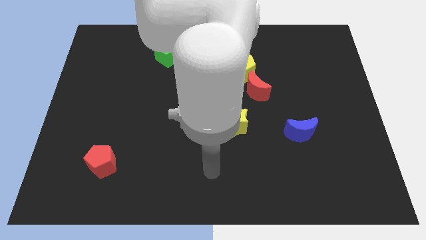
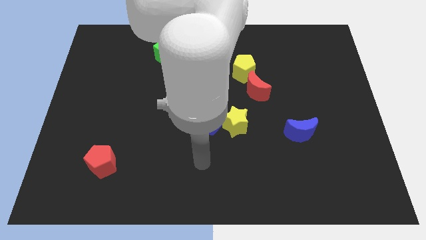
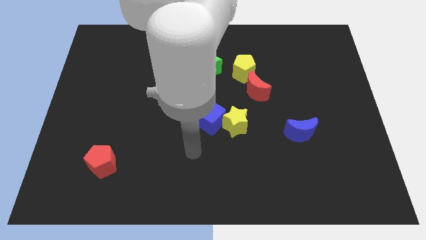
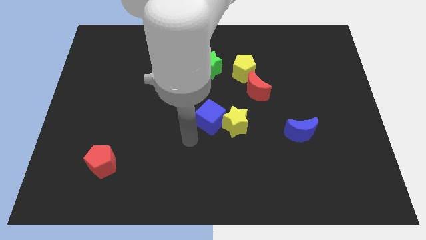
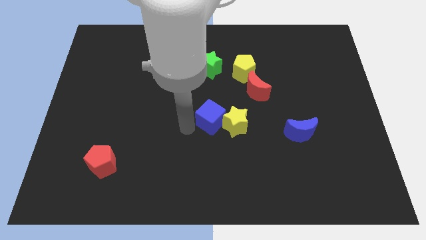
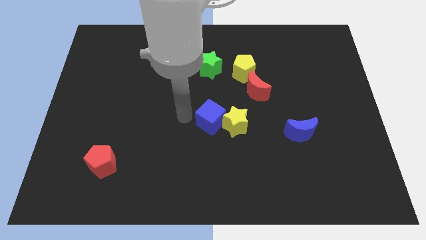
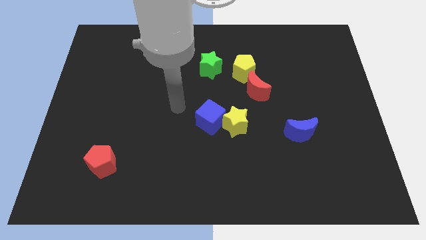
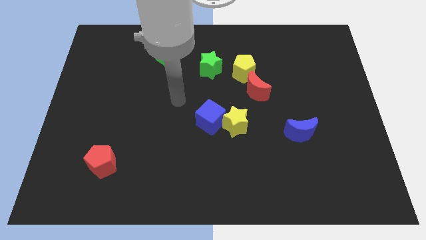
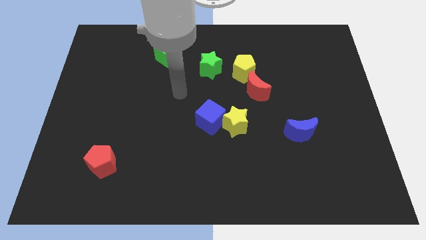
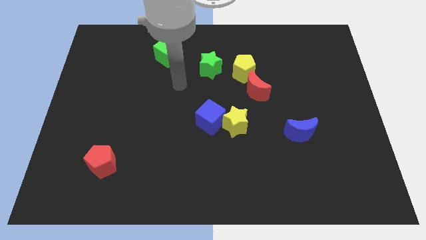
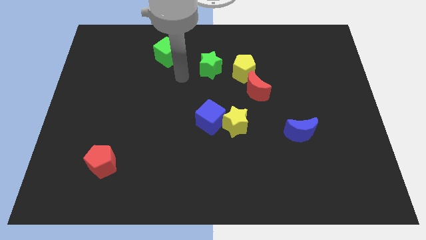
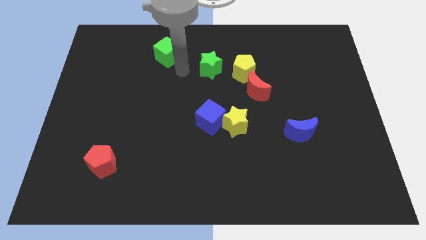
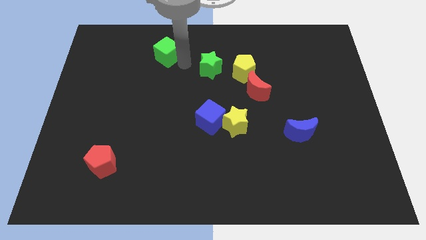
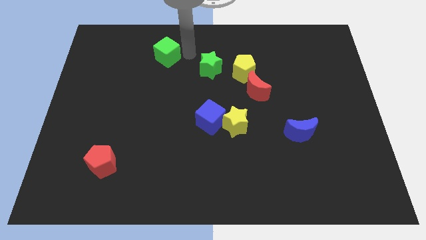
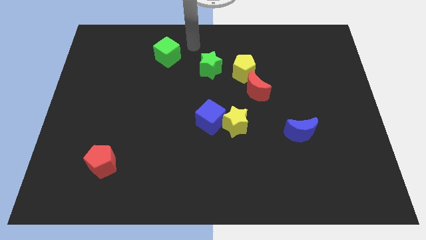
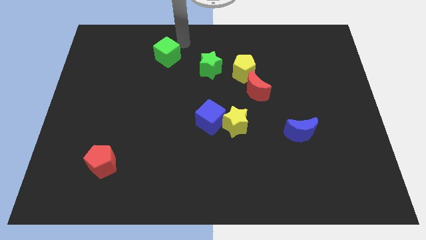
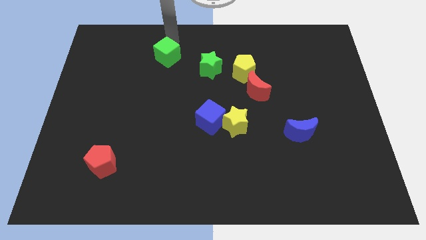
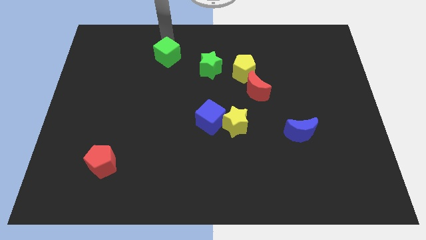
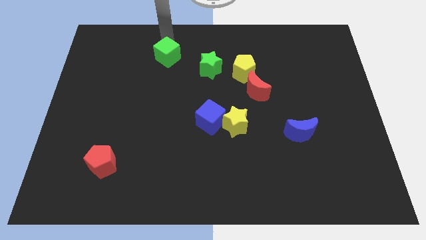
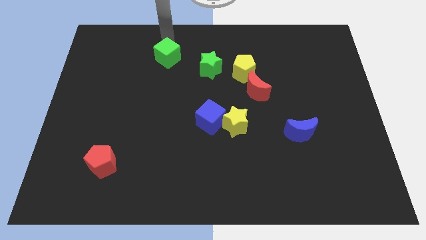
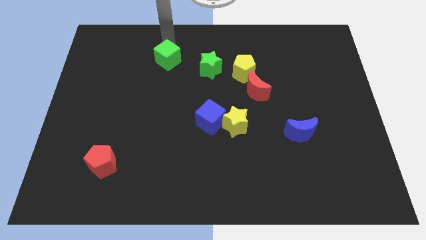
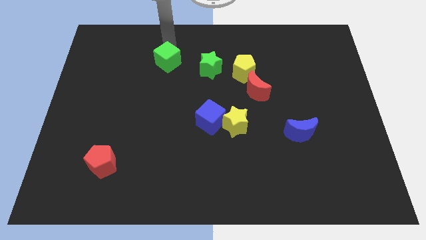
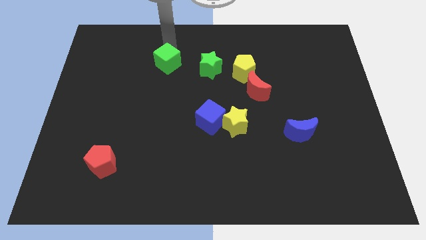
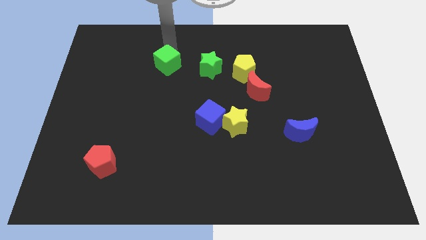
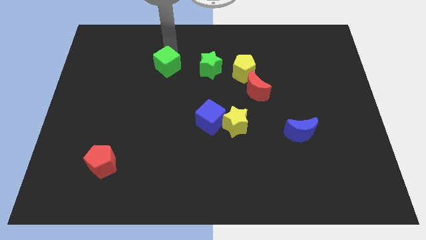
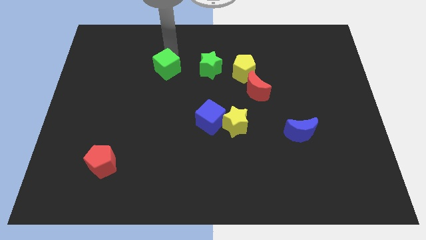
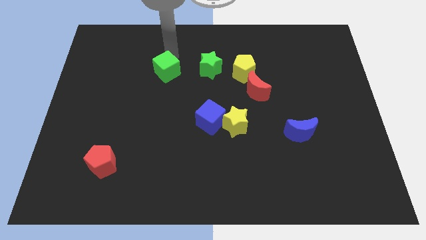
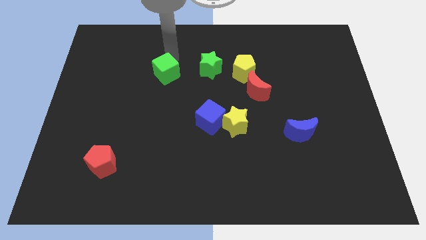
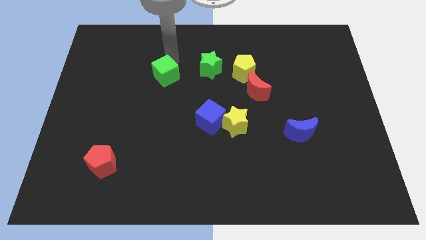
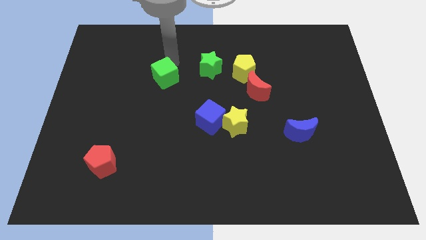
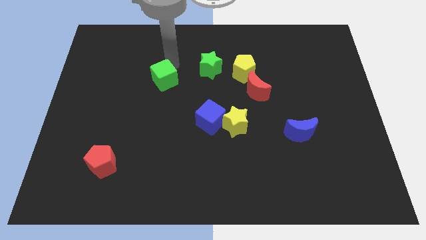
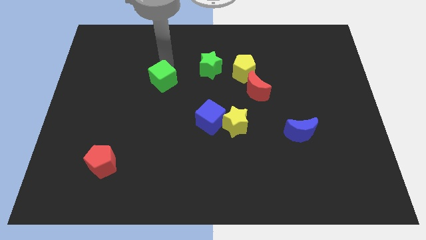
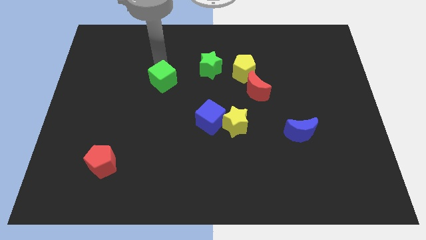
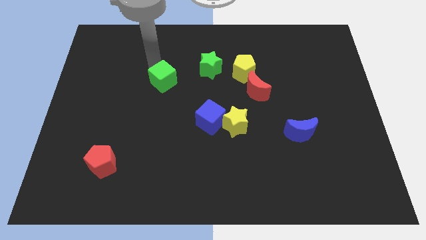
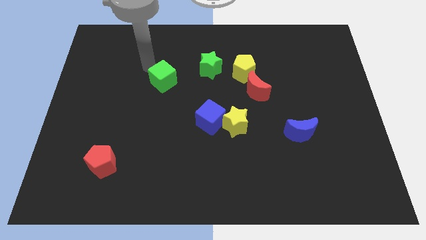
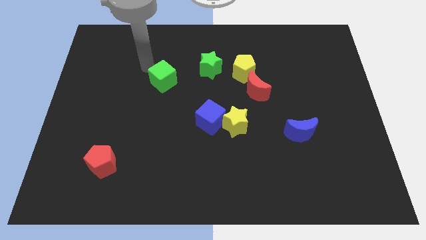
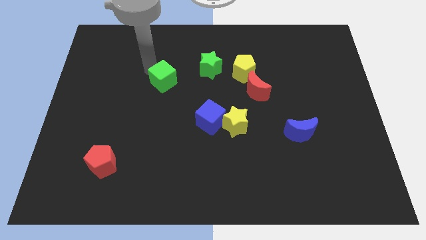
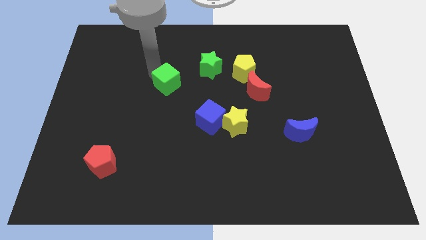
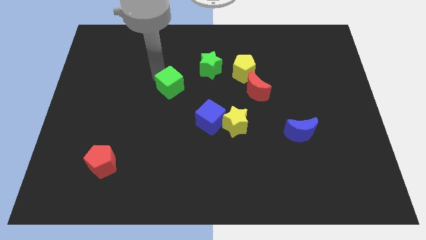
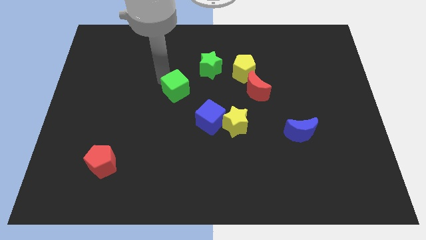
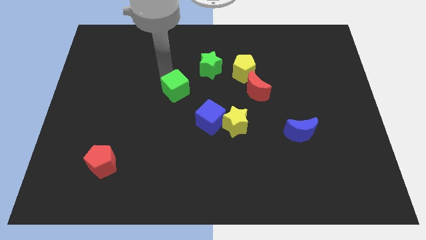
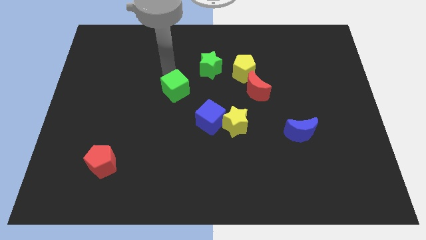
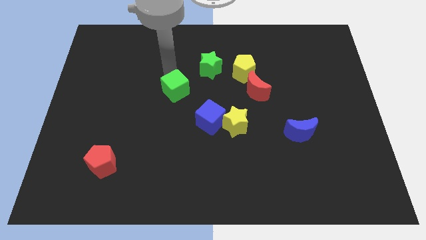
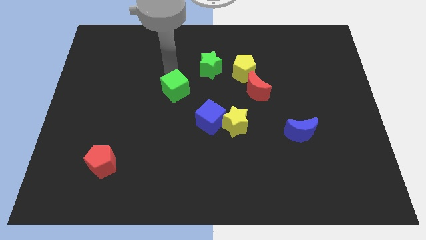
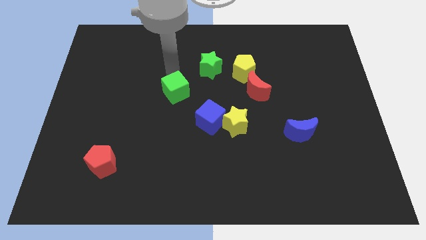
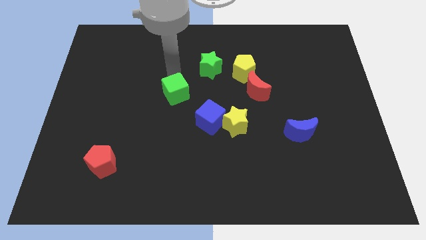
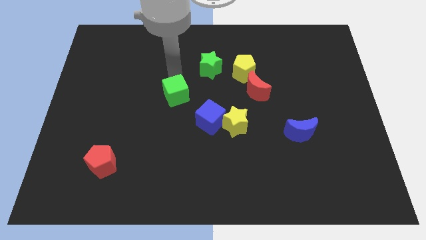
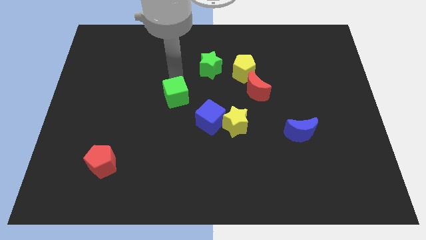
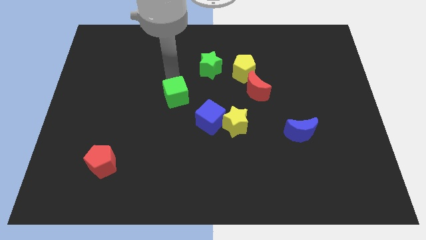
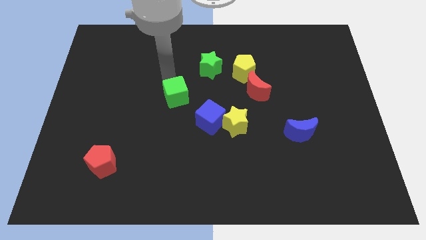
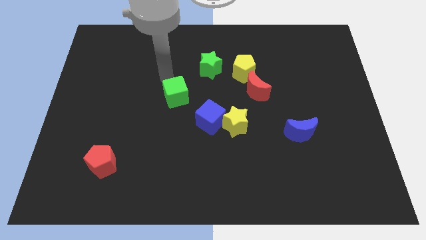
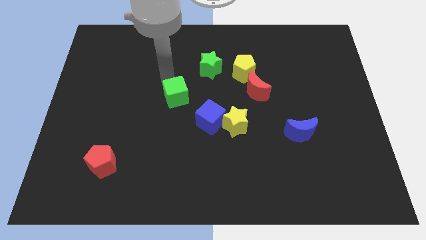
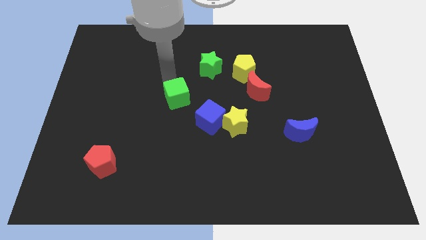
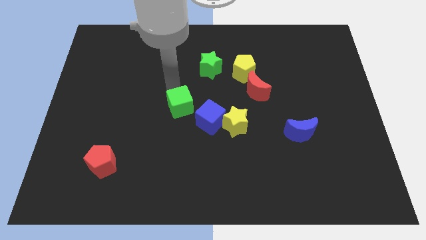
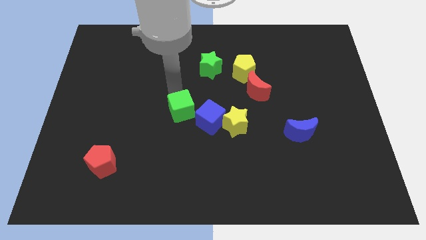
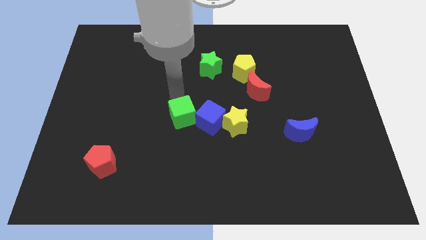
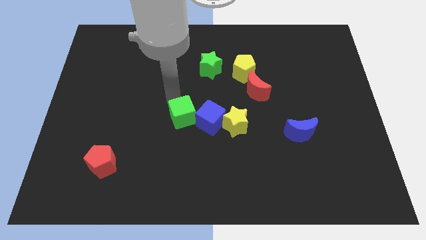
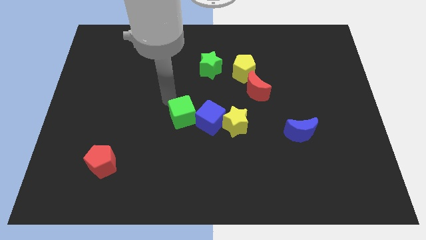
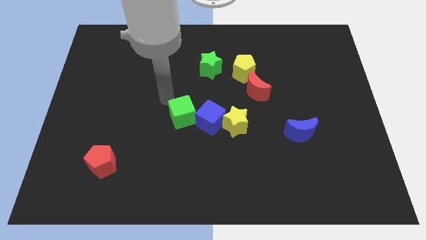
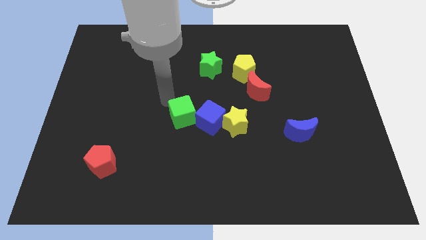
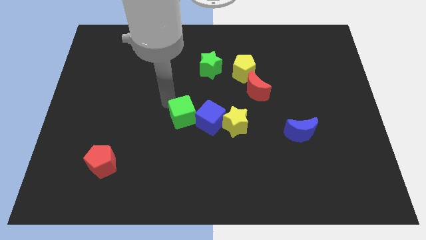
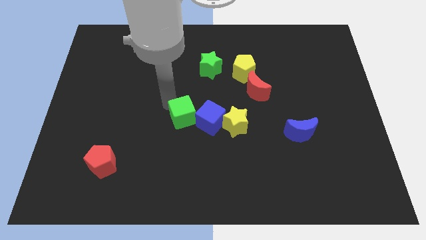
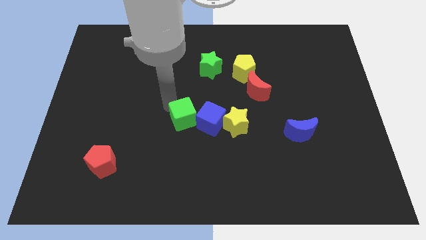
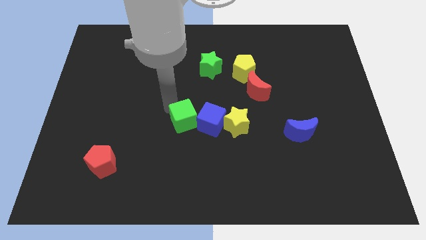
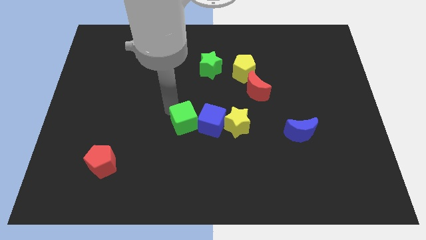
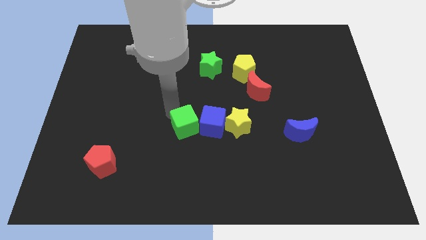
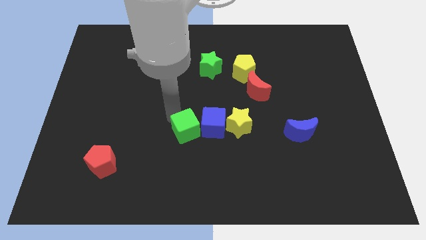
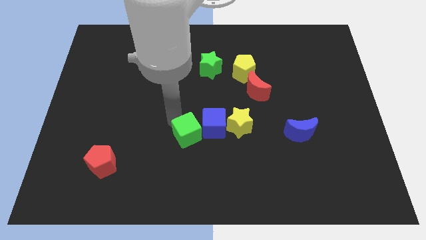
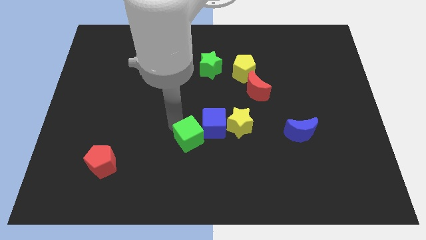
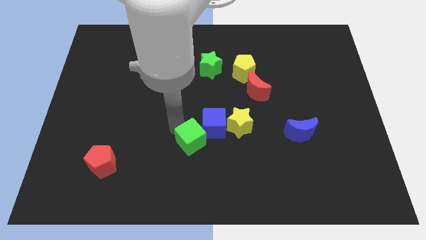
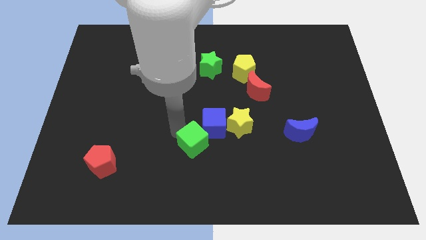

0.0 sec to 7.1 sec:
slide the green cube to the bottom of the blue cube
